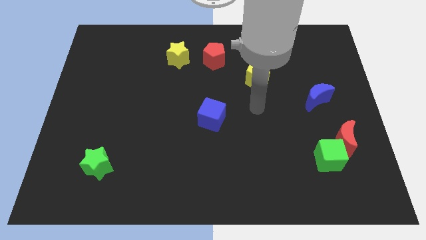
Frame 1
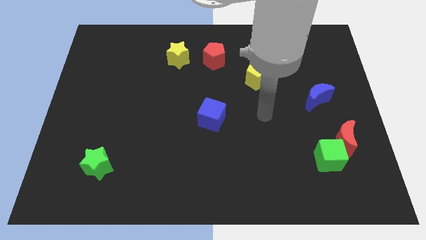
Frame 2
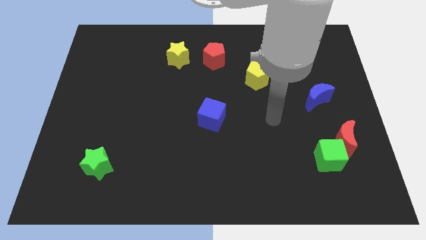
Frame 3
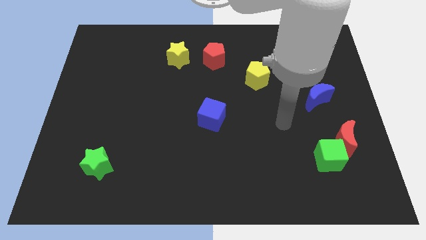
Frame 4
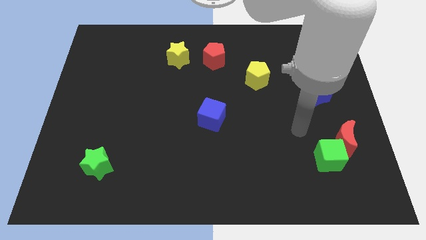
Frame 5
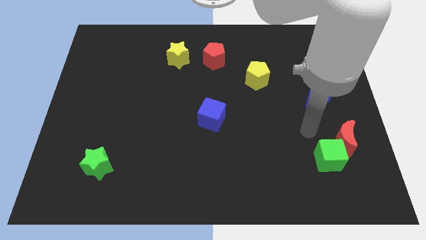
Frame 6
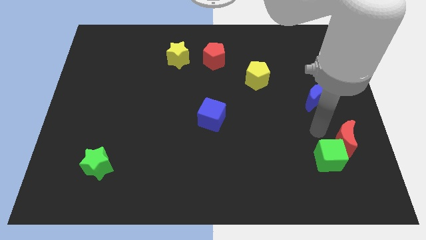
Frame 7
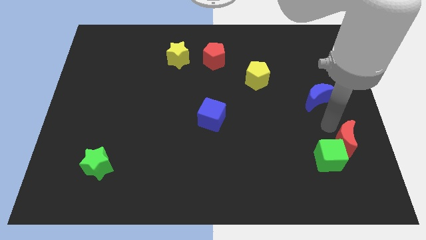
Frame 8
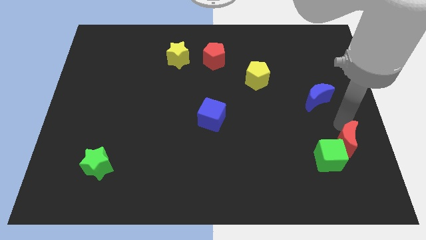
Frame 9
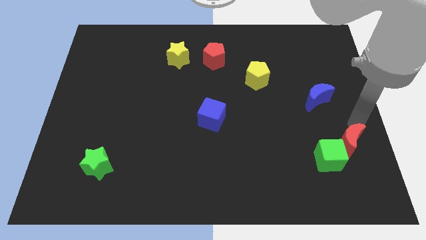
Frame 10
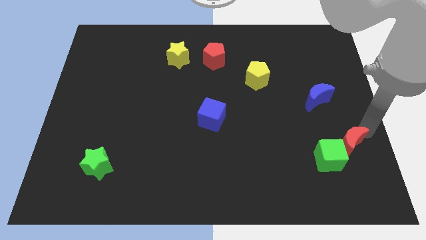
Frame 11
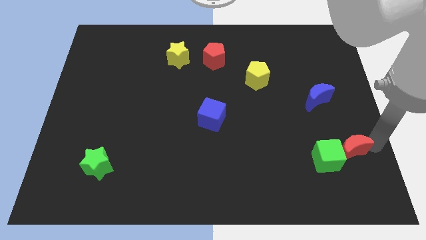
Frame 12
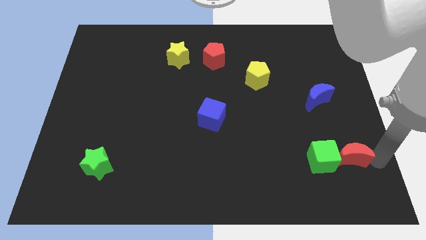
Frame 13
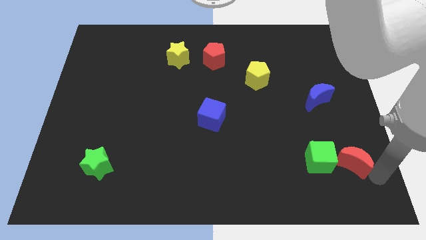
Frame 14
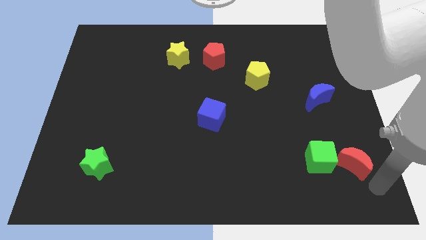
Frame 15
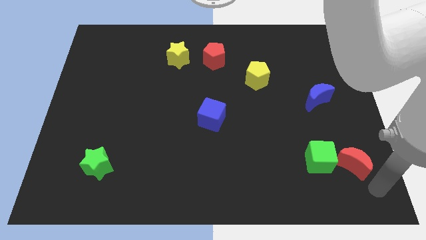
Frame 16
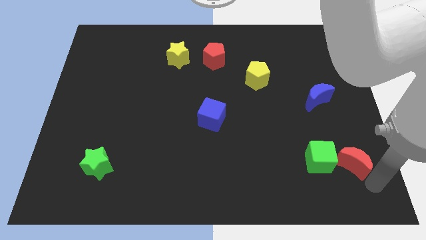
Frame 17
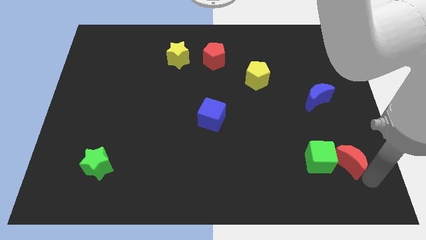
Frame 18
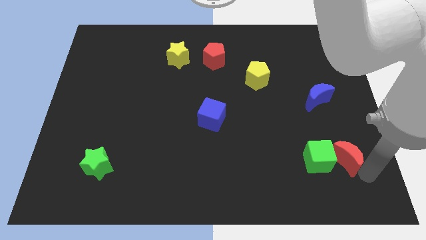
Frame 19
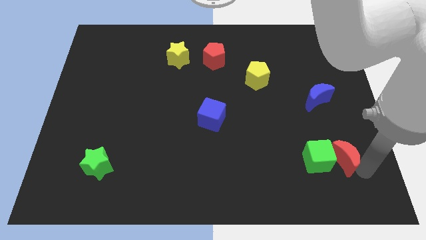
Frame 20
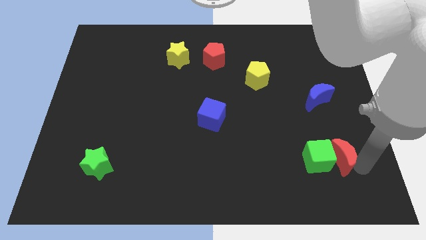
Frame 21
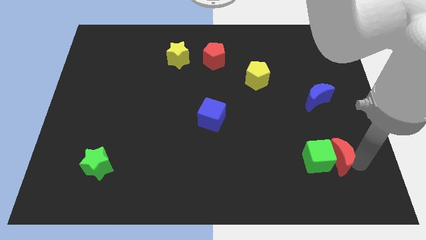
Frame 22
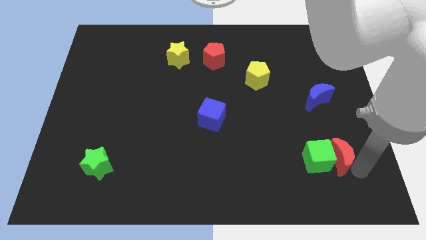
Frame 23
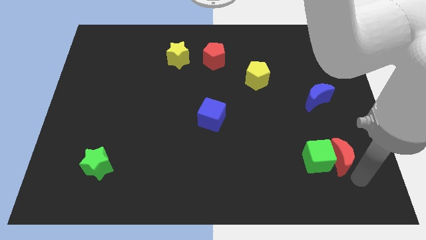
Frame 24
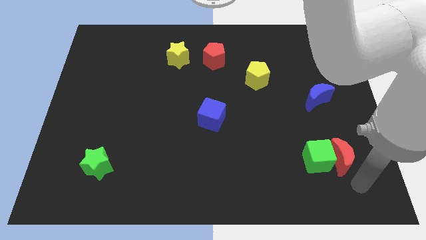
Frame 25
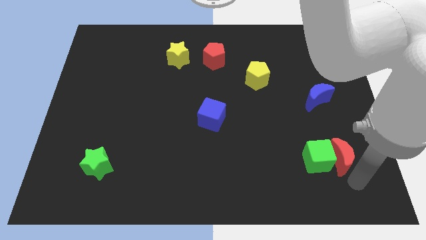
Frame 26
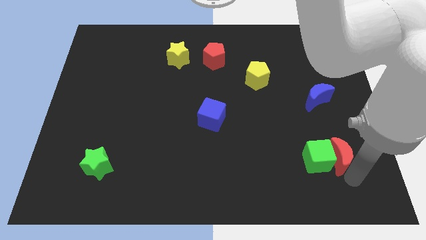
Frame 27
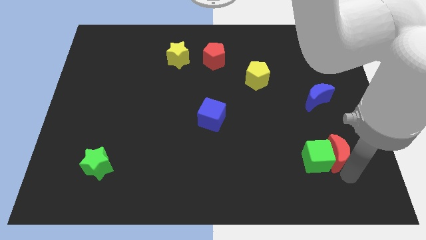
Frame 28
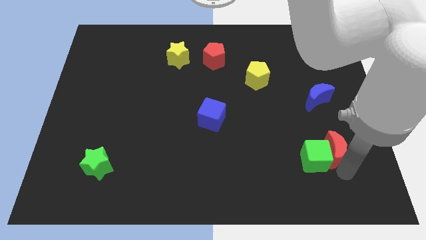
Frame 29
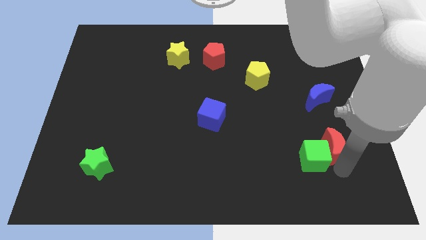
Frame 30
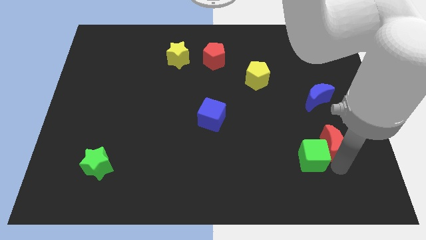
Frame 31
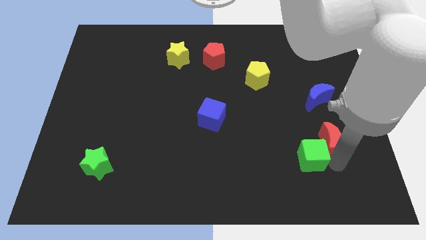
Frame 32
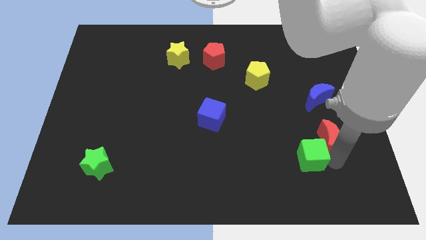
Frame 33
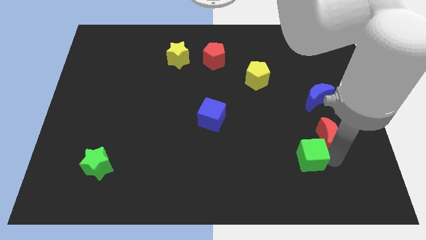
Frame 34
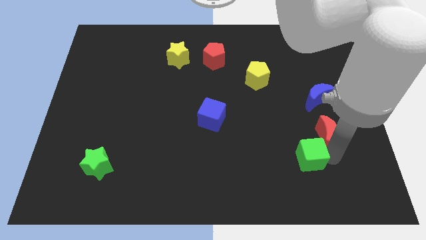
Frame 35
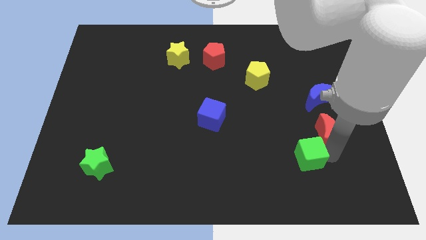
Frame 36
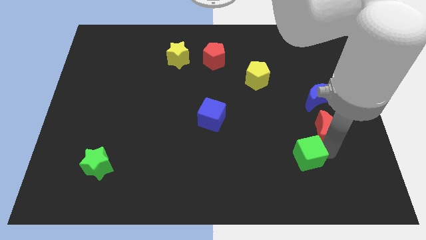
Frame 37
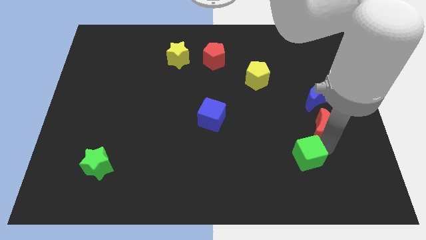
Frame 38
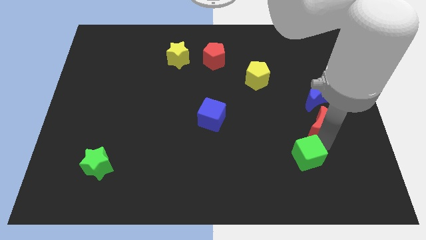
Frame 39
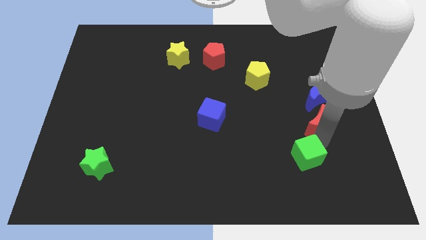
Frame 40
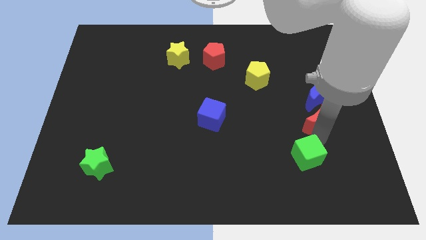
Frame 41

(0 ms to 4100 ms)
push the red moon slightly upwards and left

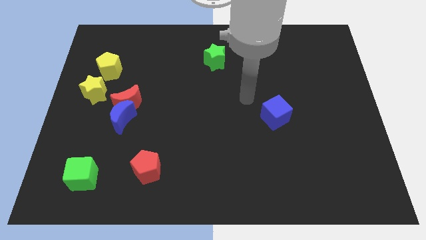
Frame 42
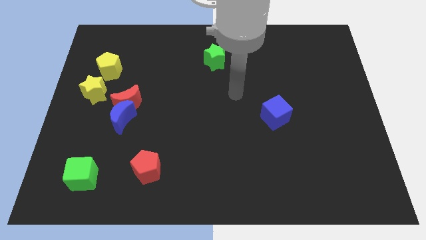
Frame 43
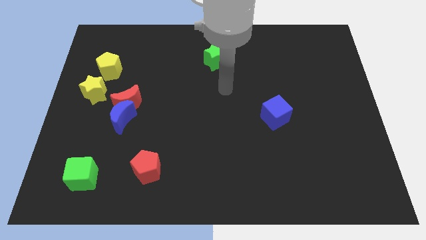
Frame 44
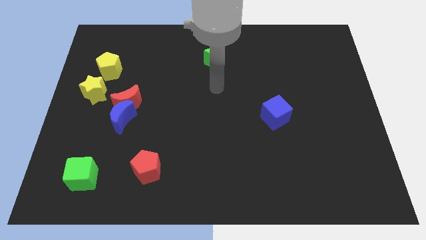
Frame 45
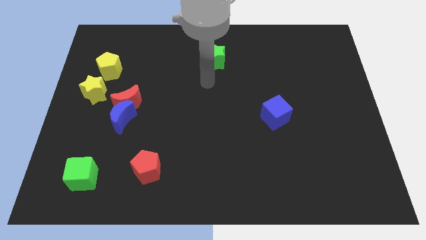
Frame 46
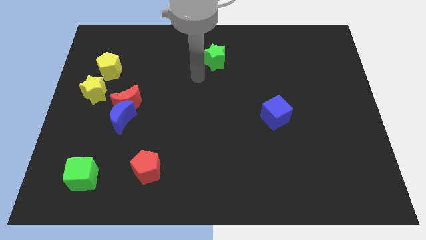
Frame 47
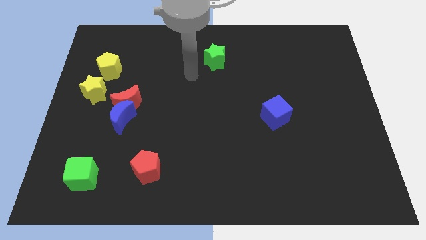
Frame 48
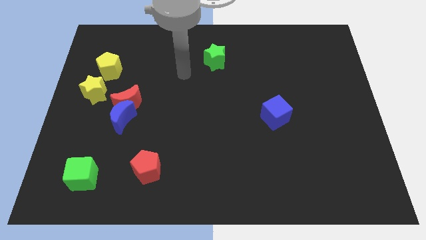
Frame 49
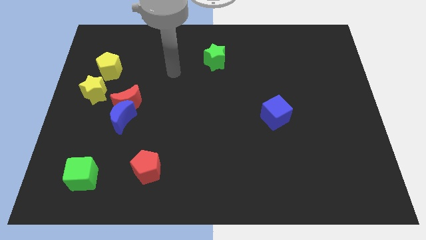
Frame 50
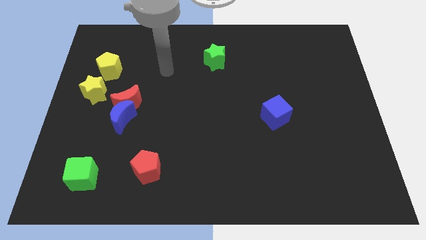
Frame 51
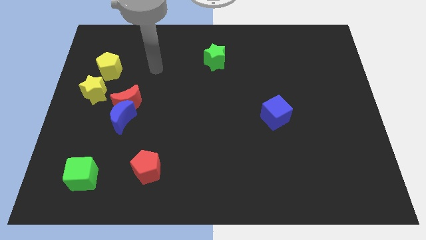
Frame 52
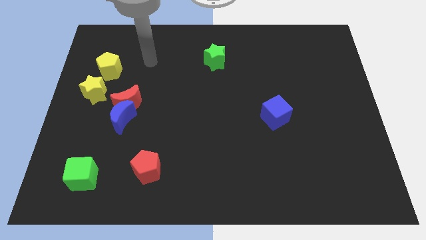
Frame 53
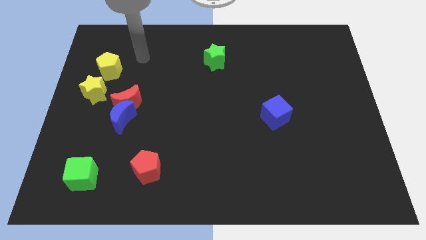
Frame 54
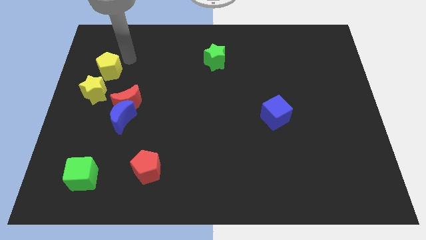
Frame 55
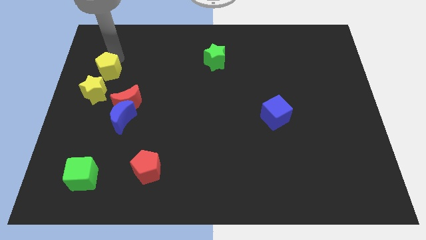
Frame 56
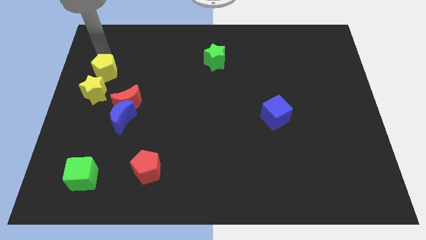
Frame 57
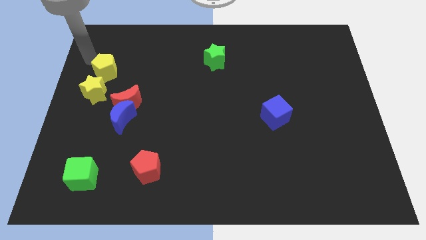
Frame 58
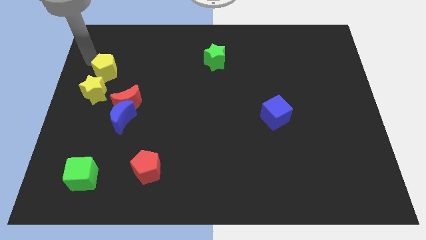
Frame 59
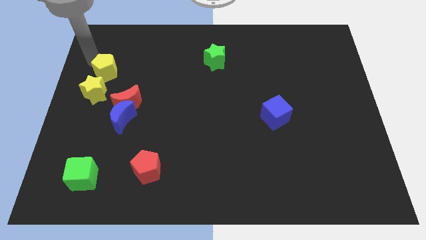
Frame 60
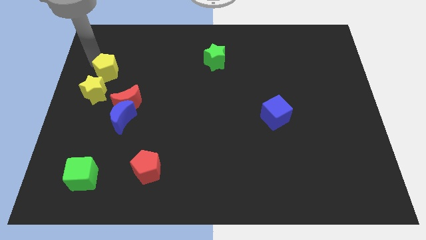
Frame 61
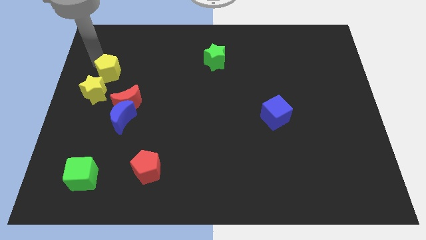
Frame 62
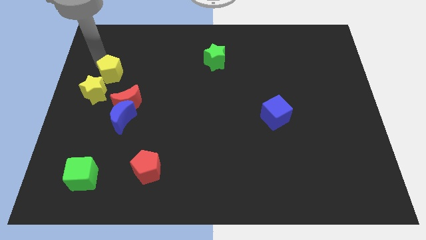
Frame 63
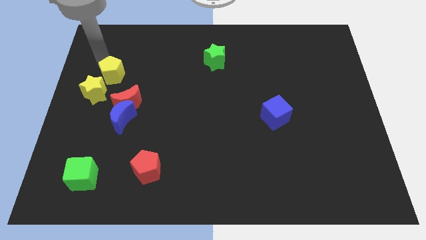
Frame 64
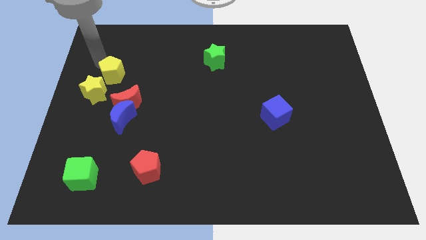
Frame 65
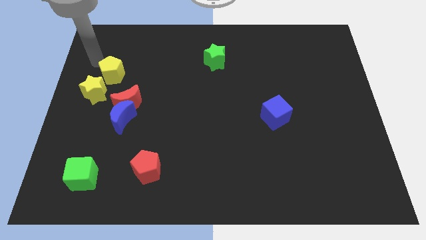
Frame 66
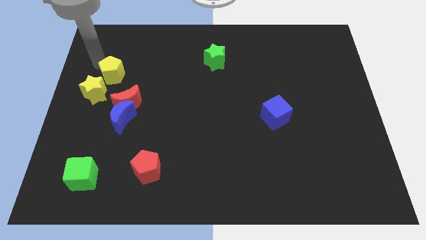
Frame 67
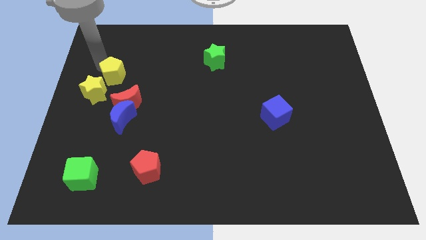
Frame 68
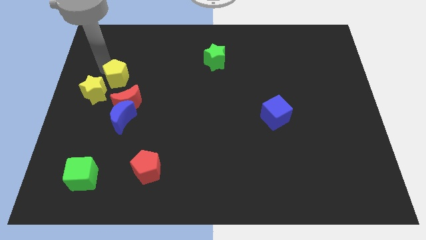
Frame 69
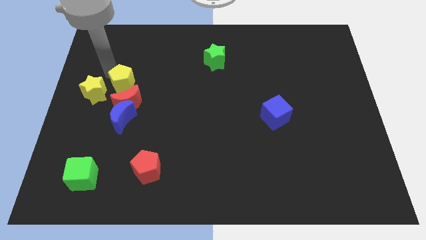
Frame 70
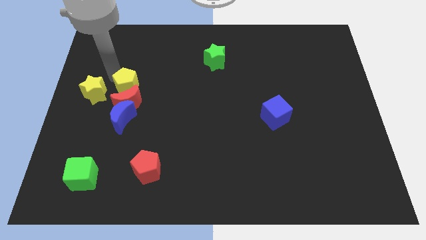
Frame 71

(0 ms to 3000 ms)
move the yellow pentagon a bit down and to the right diagonally

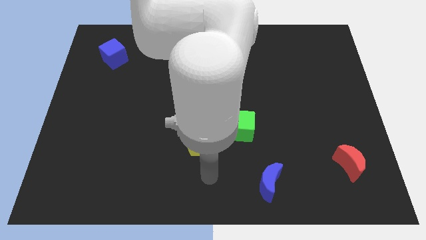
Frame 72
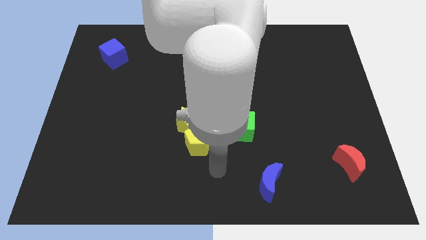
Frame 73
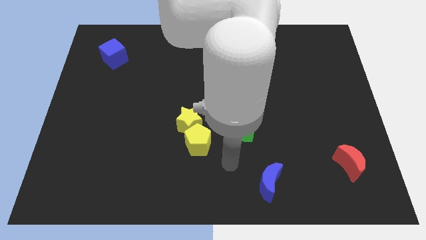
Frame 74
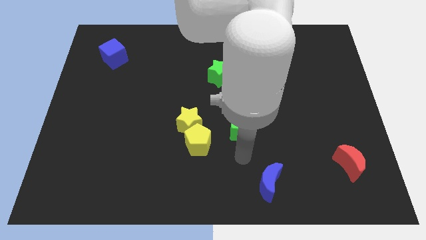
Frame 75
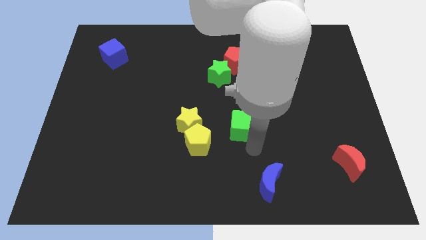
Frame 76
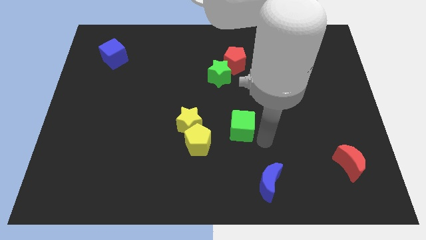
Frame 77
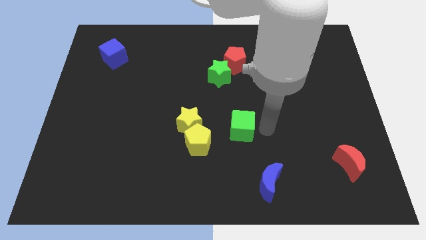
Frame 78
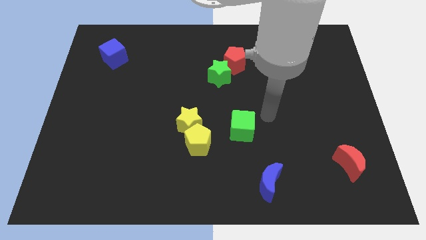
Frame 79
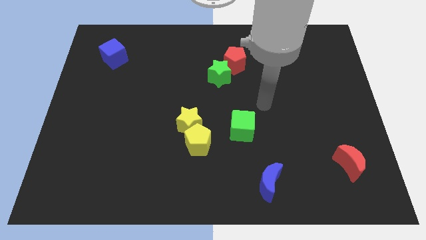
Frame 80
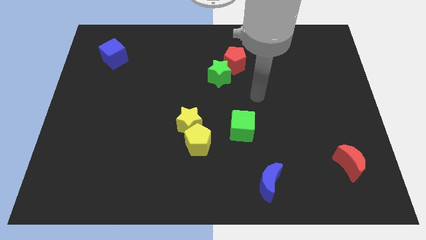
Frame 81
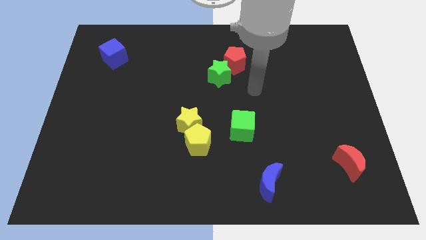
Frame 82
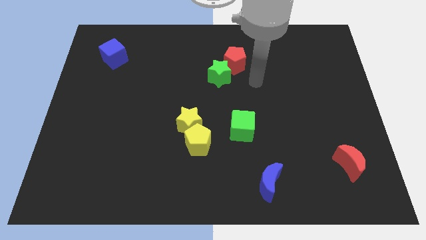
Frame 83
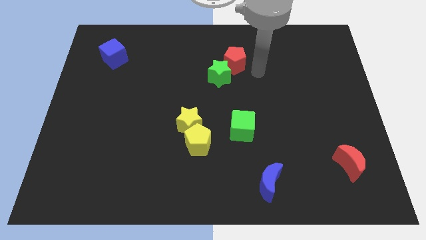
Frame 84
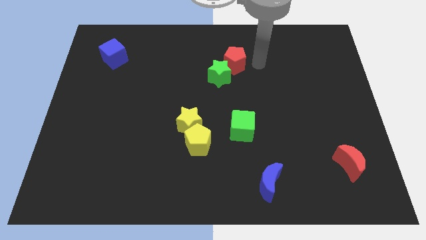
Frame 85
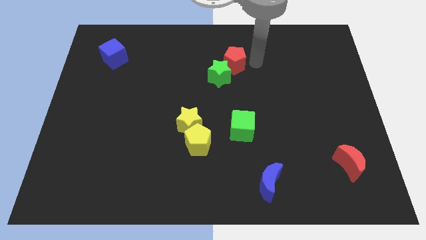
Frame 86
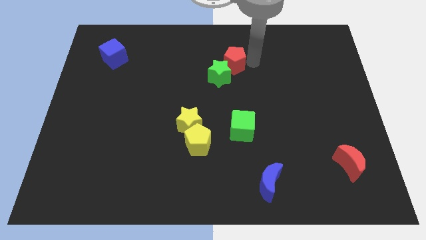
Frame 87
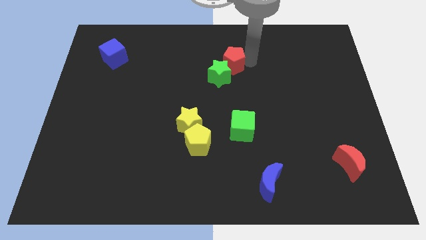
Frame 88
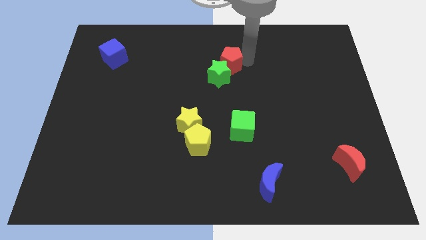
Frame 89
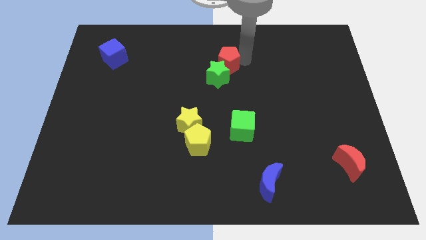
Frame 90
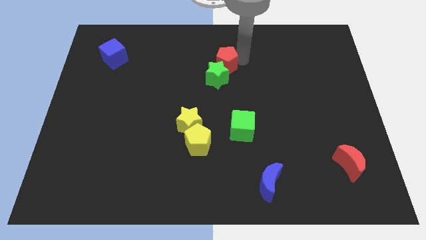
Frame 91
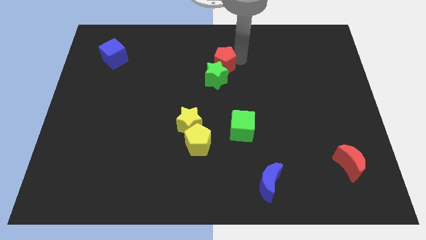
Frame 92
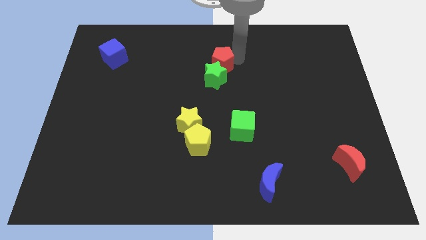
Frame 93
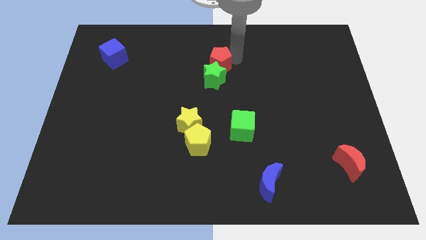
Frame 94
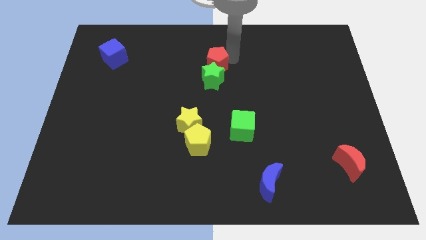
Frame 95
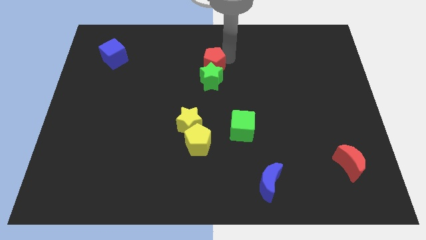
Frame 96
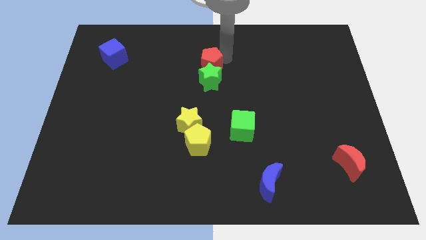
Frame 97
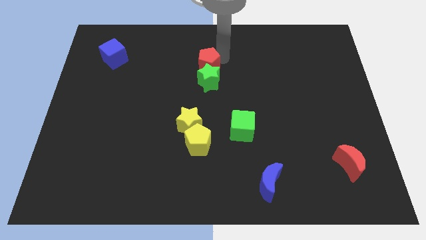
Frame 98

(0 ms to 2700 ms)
move the red pentagon to the left a little bit
